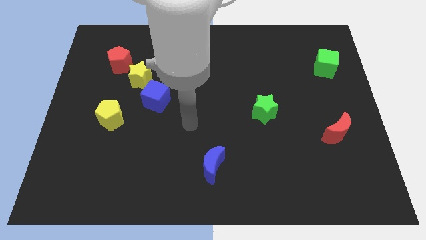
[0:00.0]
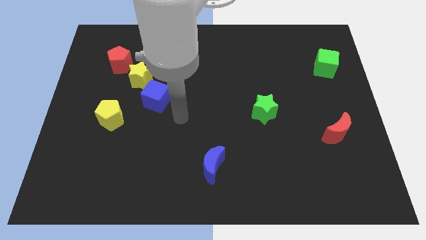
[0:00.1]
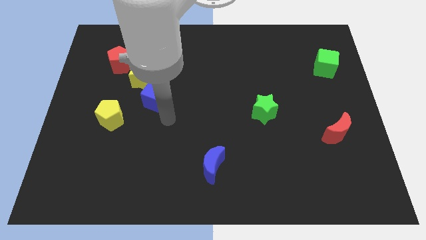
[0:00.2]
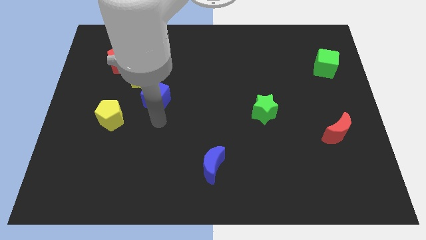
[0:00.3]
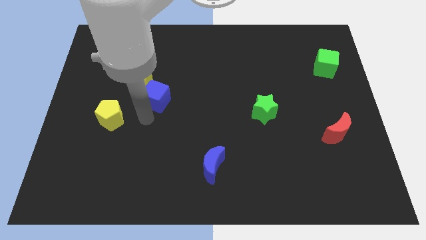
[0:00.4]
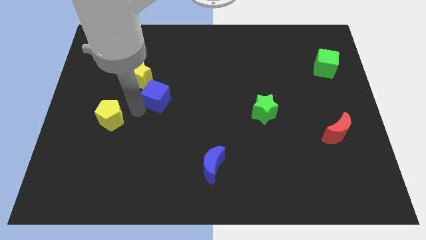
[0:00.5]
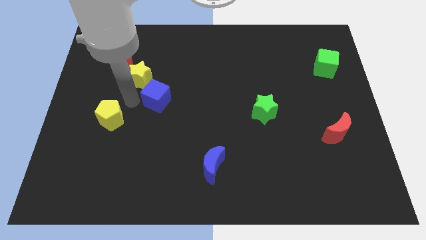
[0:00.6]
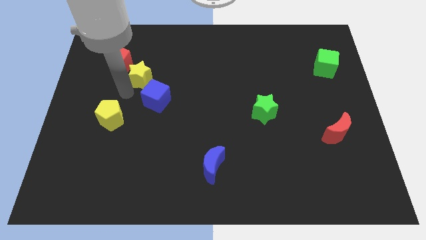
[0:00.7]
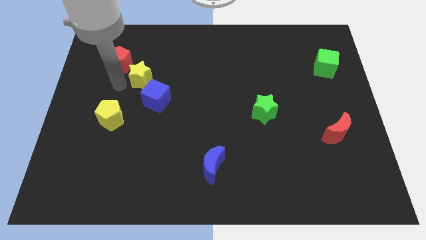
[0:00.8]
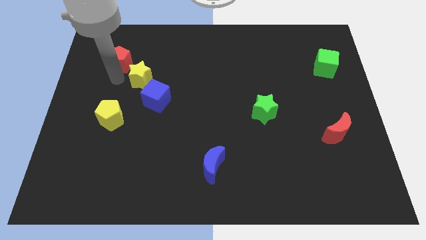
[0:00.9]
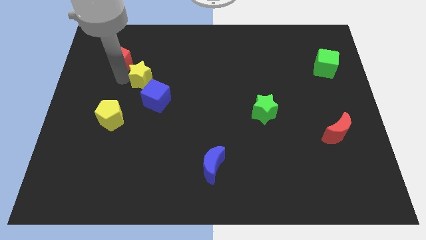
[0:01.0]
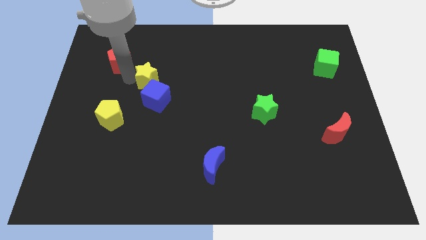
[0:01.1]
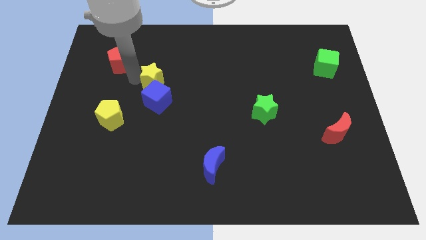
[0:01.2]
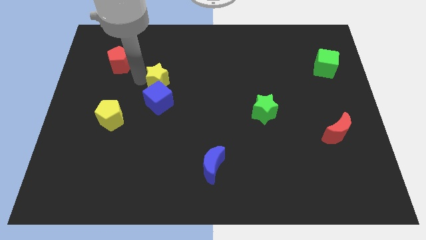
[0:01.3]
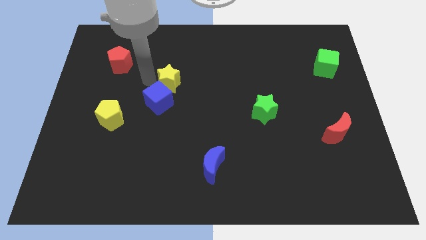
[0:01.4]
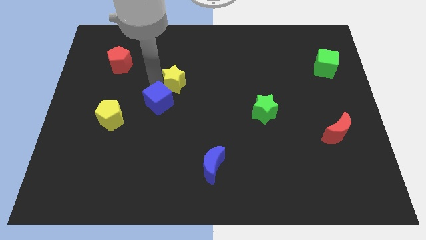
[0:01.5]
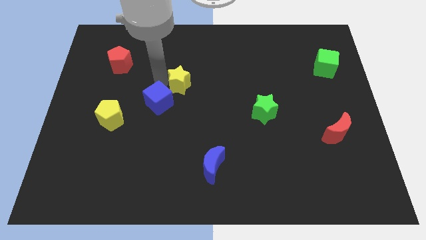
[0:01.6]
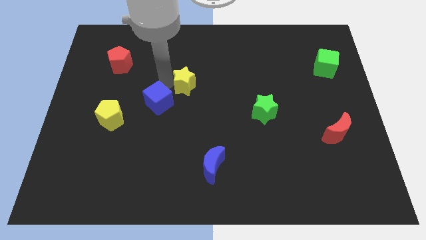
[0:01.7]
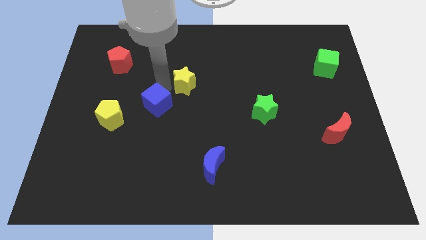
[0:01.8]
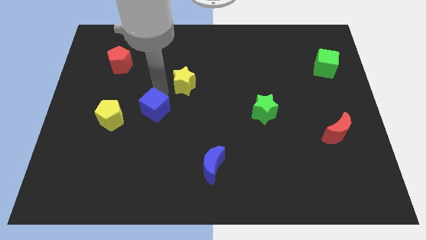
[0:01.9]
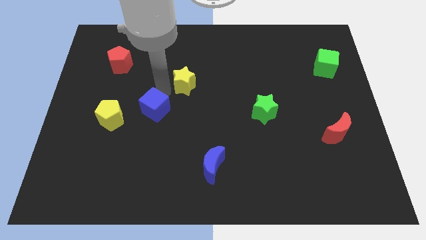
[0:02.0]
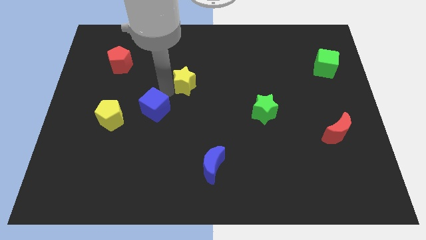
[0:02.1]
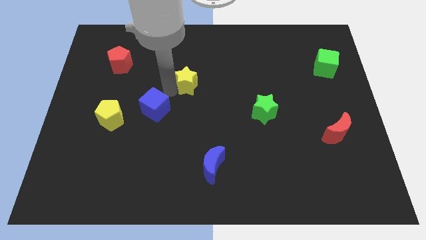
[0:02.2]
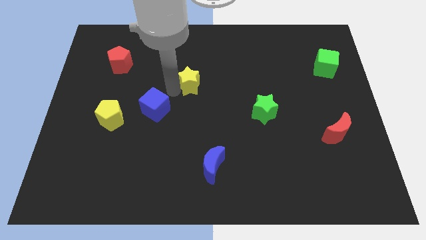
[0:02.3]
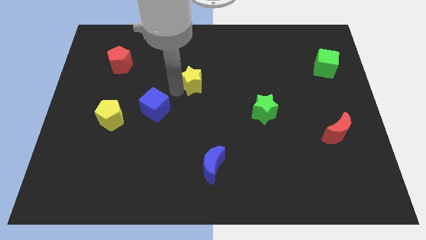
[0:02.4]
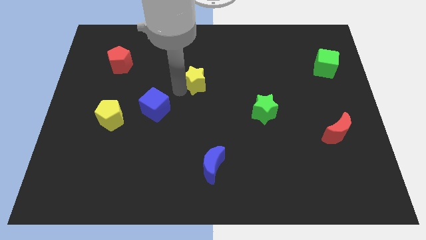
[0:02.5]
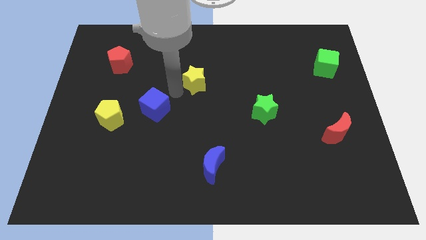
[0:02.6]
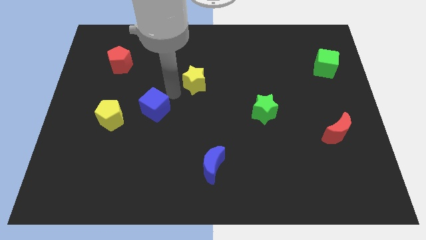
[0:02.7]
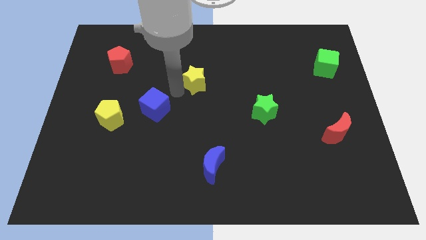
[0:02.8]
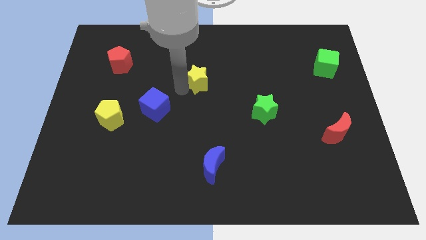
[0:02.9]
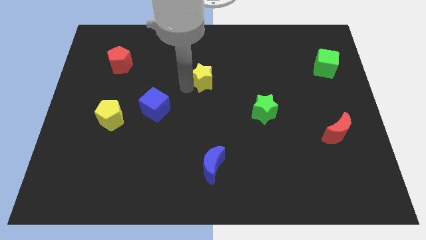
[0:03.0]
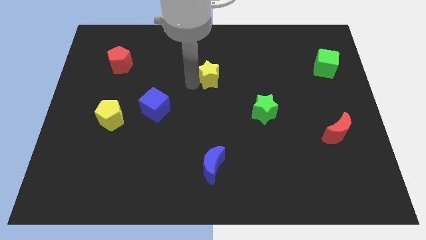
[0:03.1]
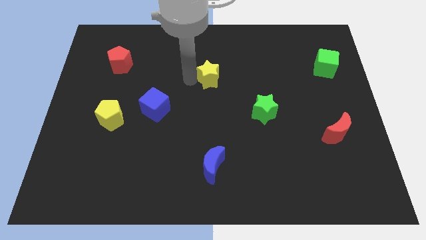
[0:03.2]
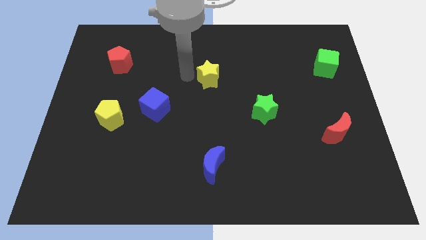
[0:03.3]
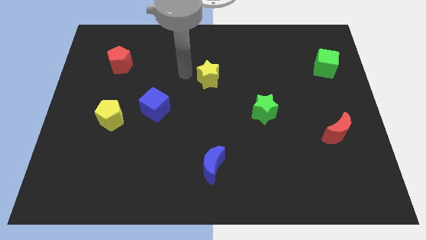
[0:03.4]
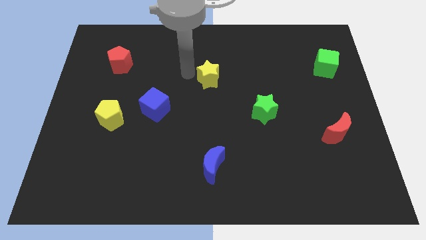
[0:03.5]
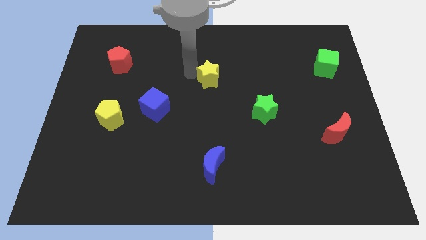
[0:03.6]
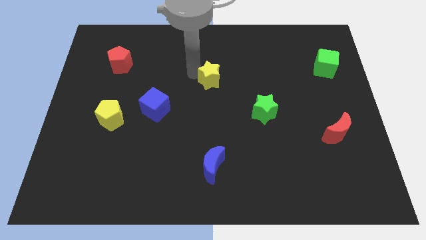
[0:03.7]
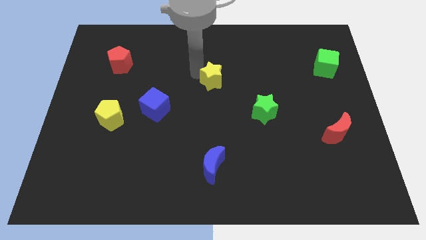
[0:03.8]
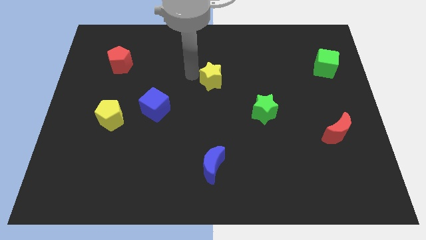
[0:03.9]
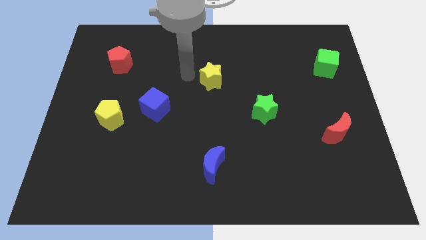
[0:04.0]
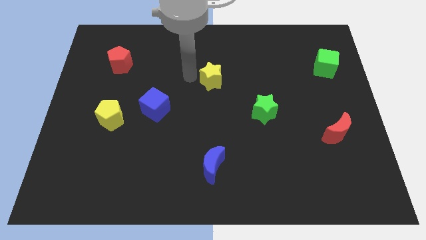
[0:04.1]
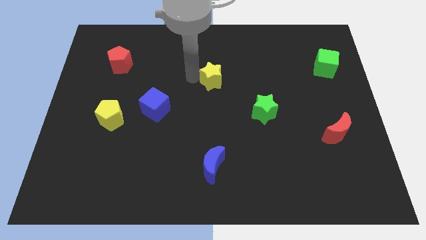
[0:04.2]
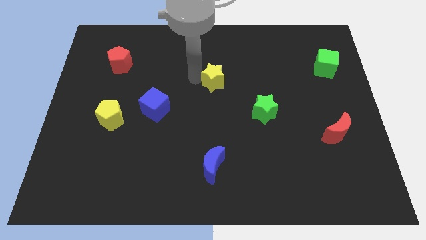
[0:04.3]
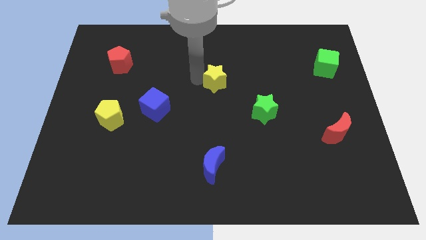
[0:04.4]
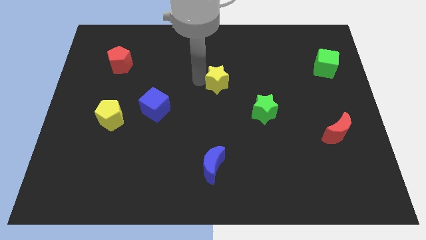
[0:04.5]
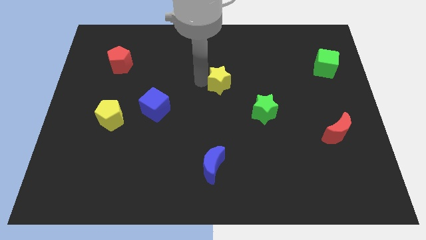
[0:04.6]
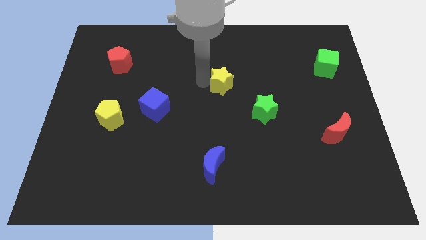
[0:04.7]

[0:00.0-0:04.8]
move the yellow star to the right

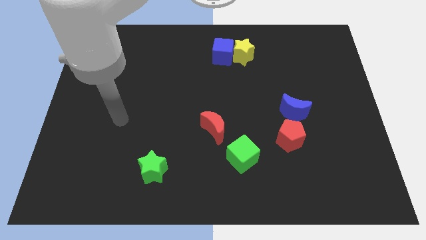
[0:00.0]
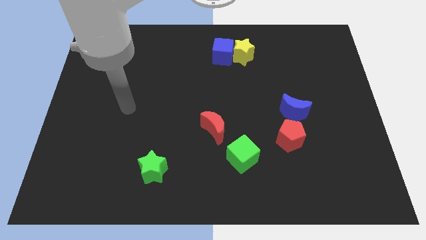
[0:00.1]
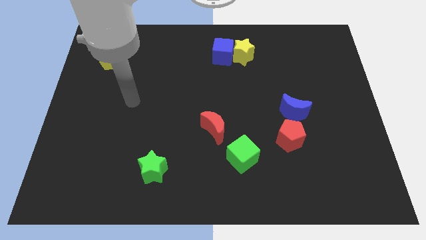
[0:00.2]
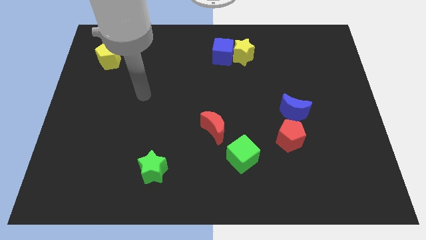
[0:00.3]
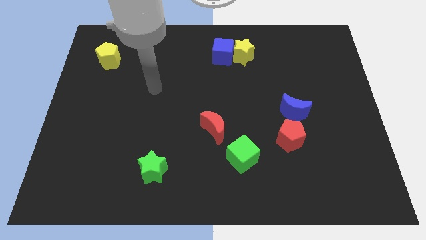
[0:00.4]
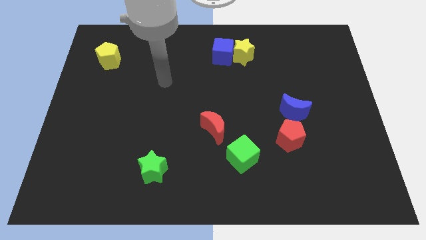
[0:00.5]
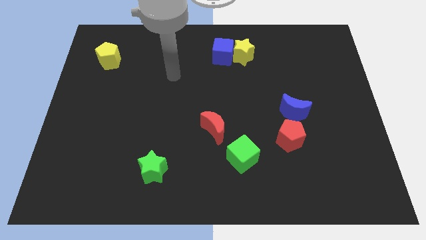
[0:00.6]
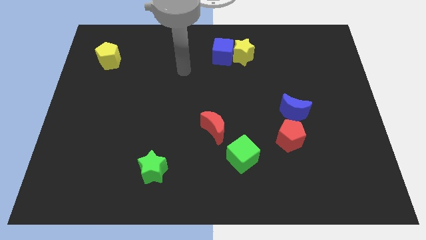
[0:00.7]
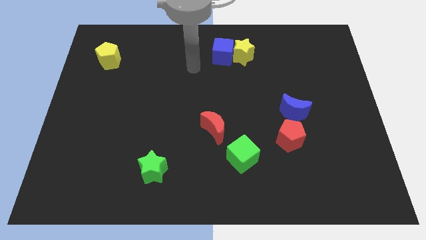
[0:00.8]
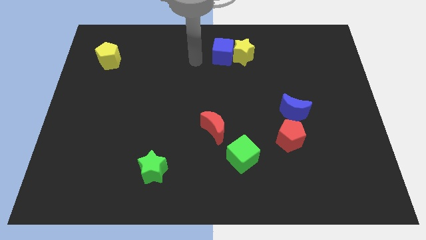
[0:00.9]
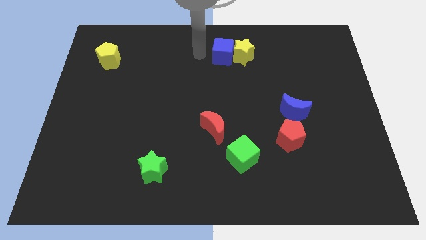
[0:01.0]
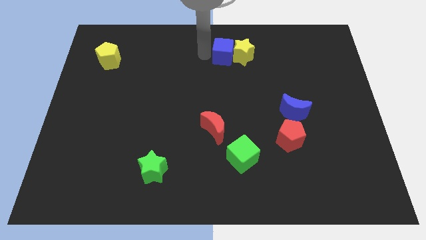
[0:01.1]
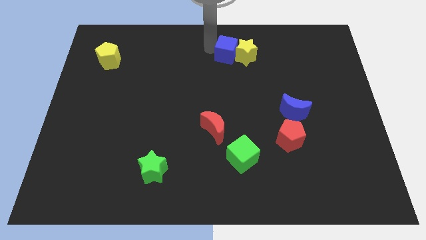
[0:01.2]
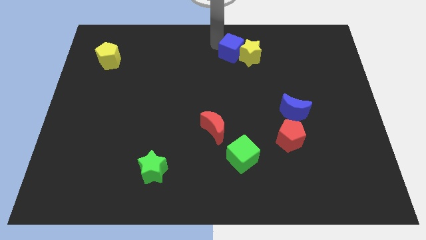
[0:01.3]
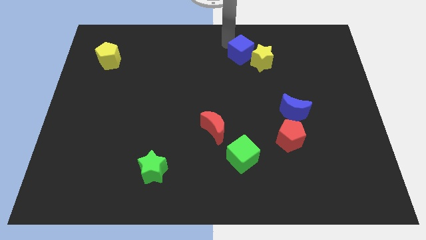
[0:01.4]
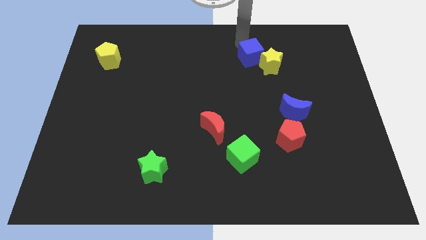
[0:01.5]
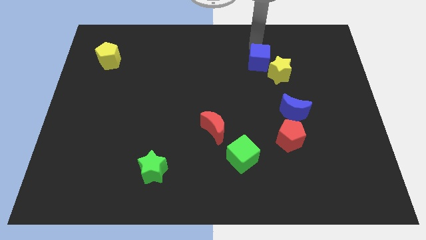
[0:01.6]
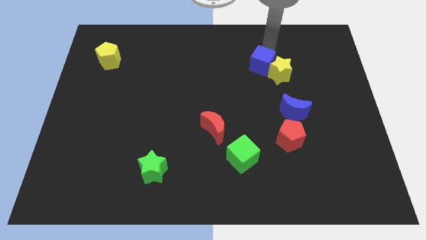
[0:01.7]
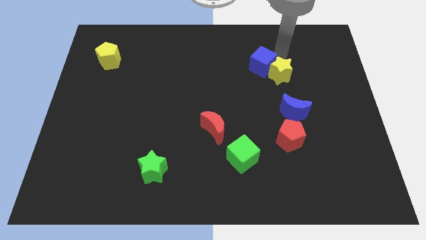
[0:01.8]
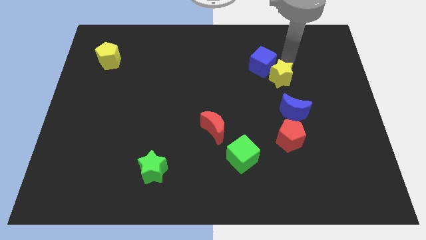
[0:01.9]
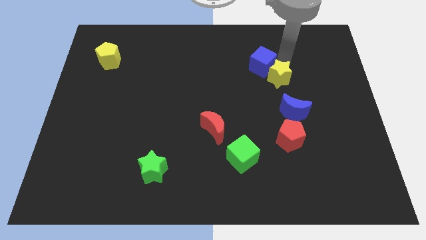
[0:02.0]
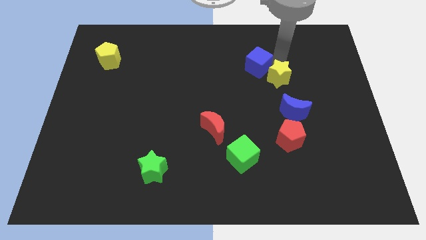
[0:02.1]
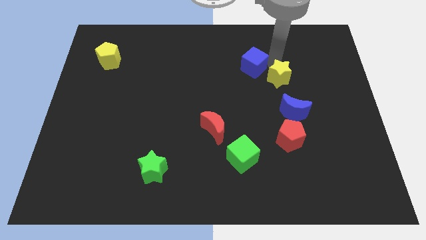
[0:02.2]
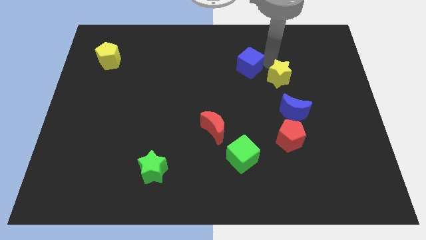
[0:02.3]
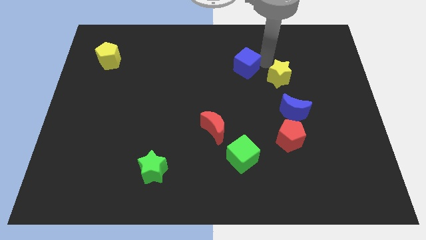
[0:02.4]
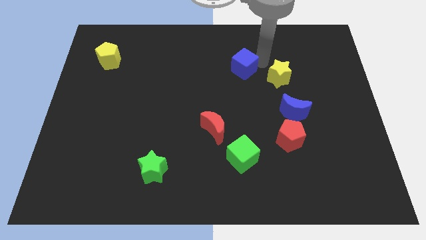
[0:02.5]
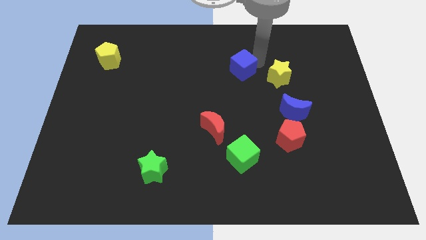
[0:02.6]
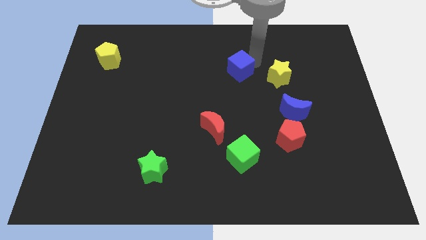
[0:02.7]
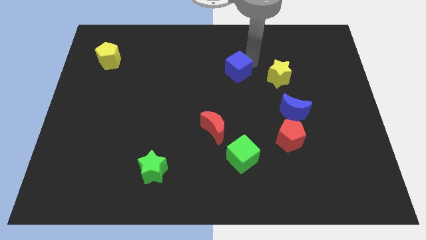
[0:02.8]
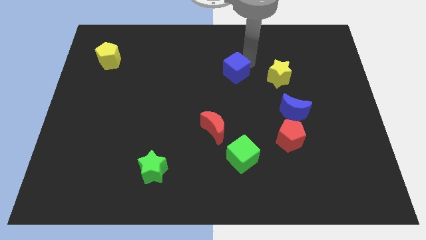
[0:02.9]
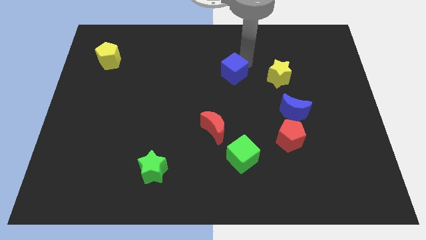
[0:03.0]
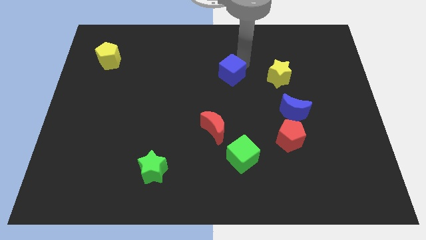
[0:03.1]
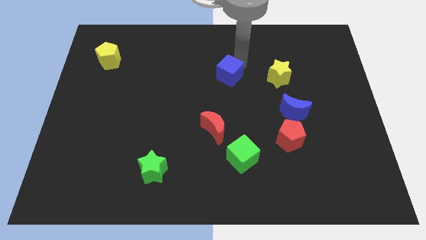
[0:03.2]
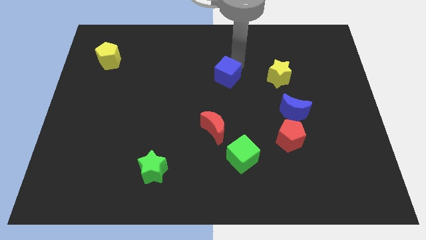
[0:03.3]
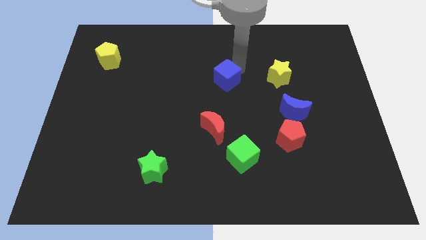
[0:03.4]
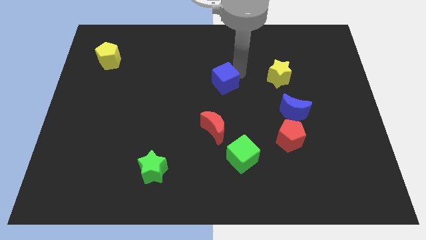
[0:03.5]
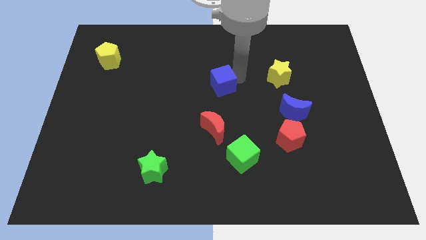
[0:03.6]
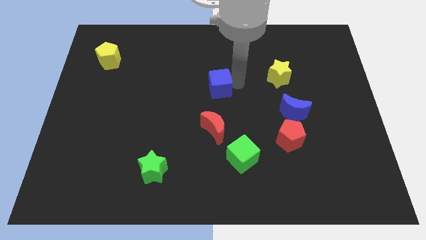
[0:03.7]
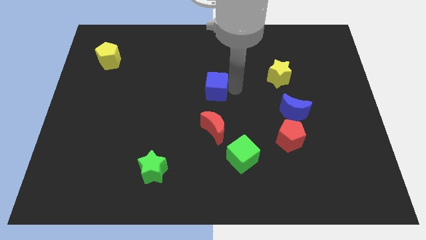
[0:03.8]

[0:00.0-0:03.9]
slightly slide the blue cube downwards and then to the left
